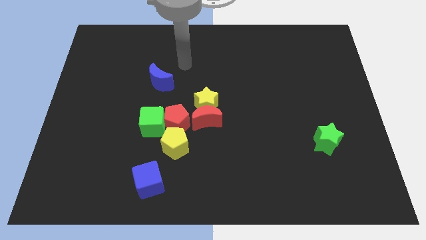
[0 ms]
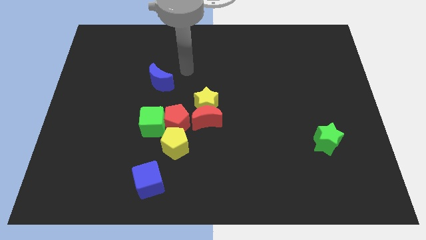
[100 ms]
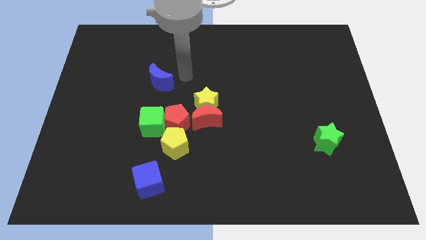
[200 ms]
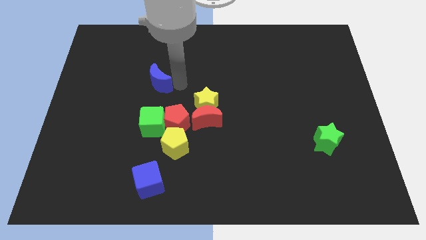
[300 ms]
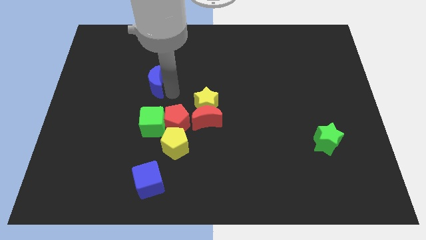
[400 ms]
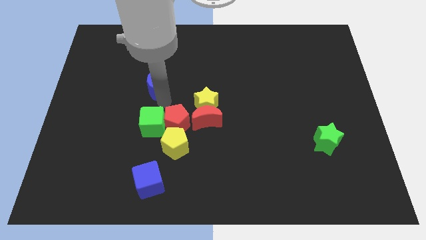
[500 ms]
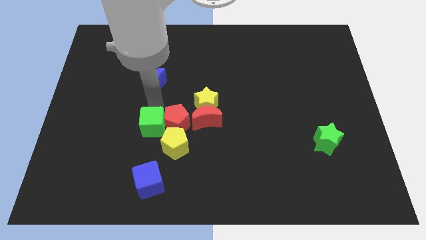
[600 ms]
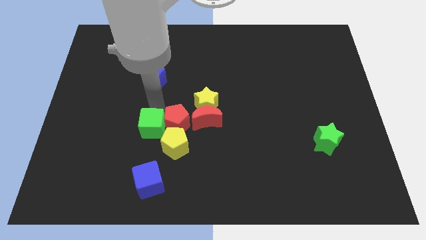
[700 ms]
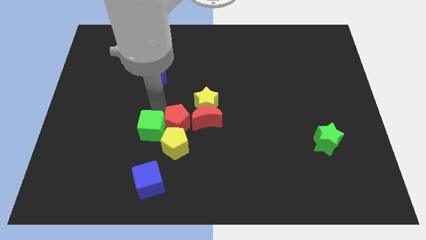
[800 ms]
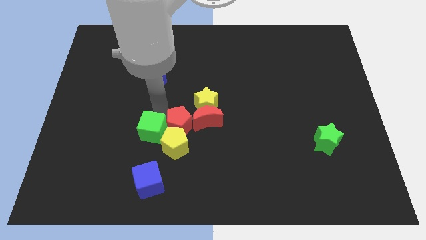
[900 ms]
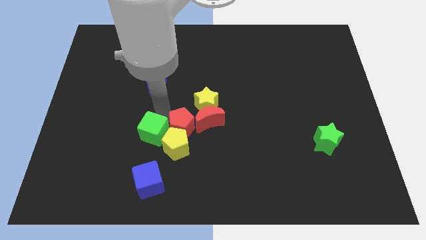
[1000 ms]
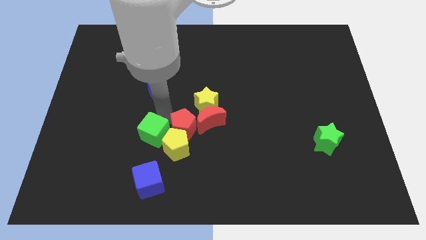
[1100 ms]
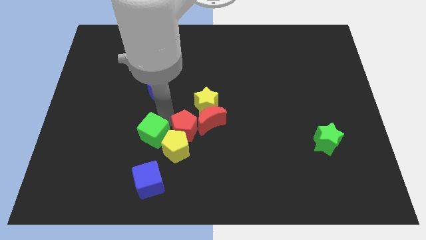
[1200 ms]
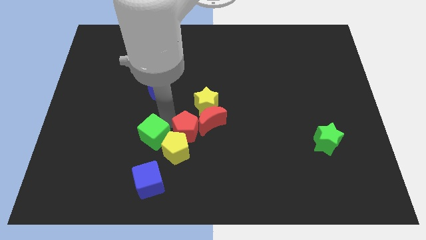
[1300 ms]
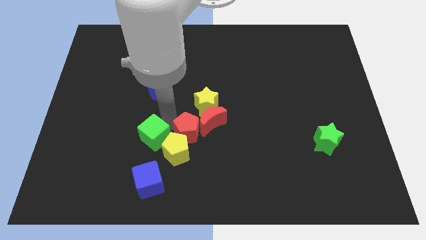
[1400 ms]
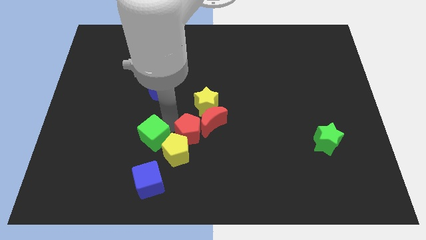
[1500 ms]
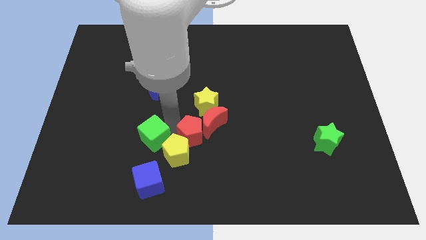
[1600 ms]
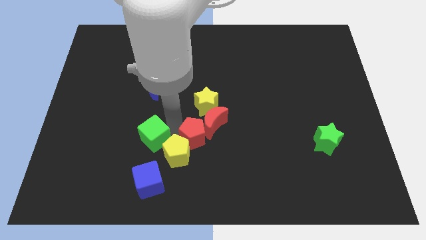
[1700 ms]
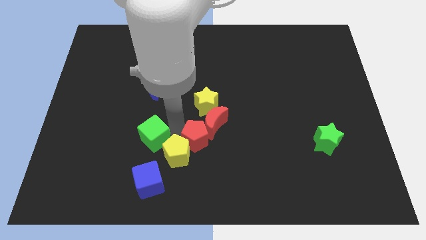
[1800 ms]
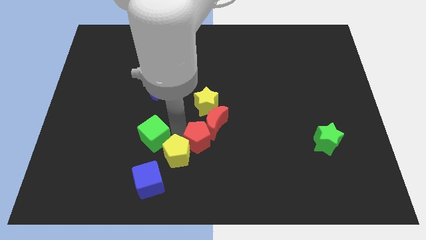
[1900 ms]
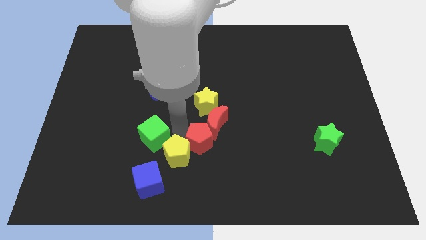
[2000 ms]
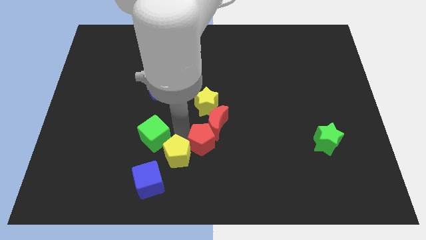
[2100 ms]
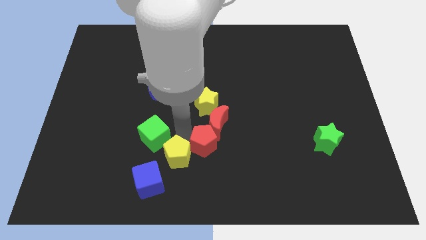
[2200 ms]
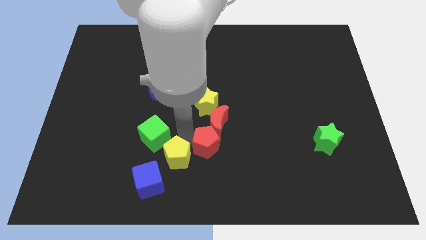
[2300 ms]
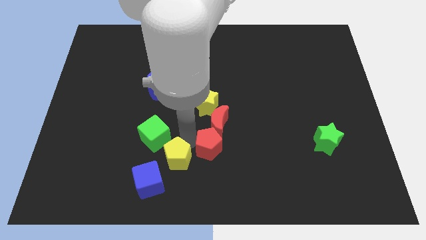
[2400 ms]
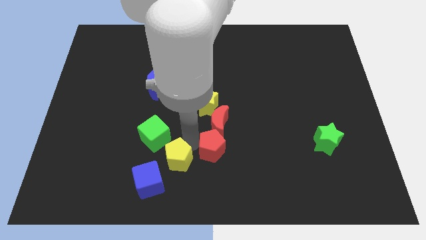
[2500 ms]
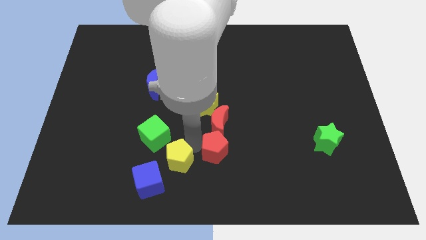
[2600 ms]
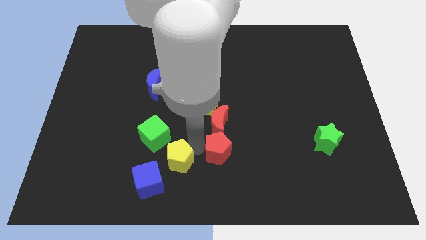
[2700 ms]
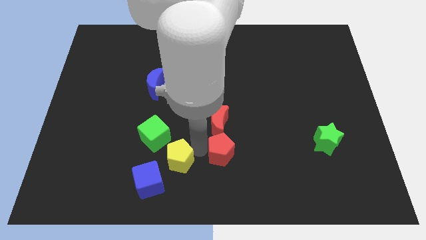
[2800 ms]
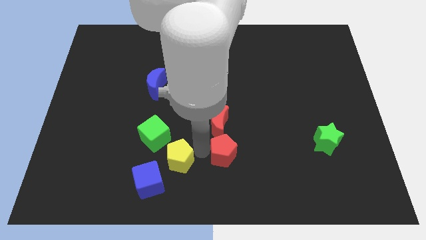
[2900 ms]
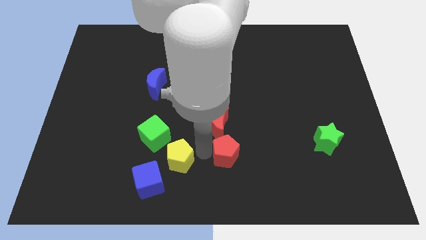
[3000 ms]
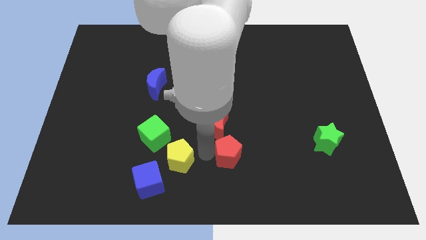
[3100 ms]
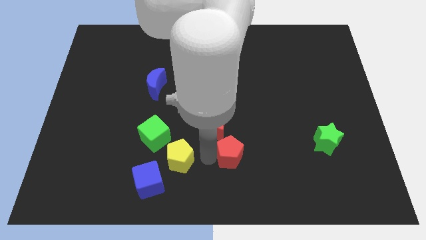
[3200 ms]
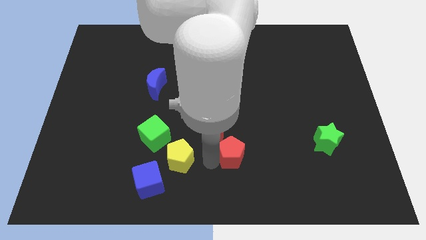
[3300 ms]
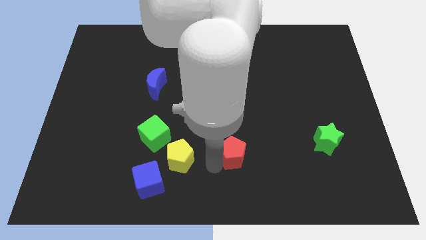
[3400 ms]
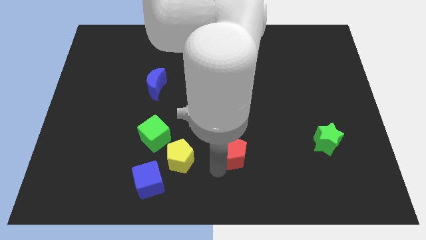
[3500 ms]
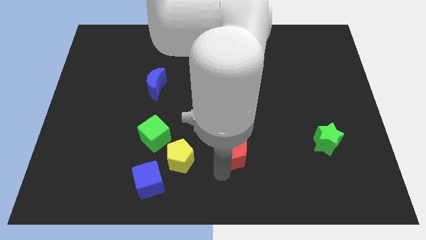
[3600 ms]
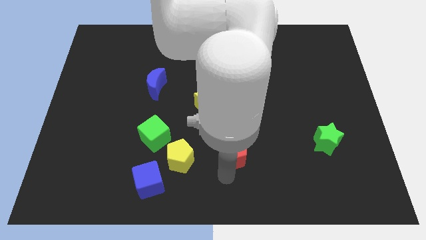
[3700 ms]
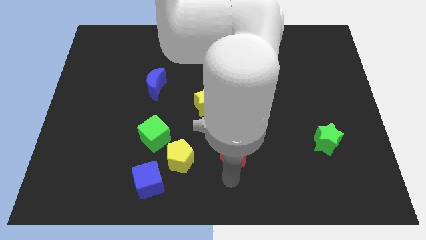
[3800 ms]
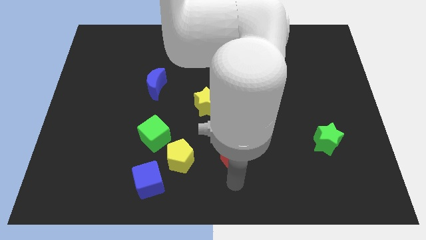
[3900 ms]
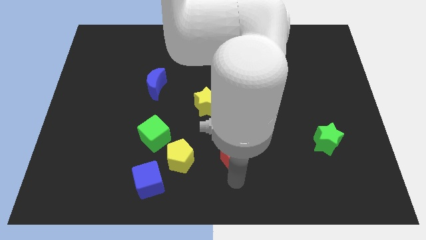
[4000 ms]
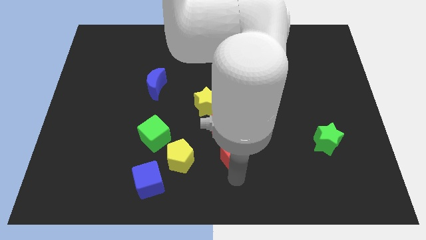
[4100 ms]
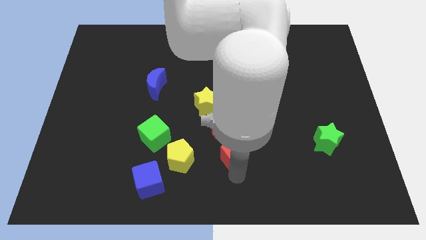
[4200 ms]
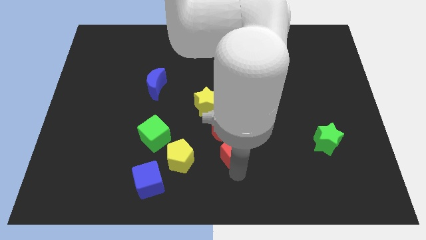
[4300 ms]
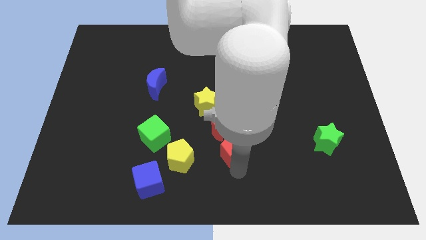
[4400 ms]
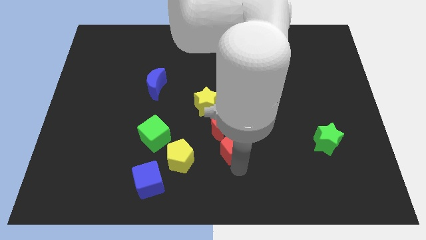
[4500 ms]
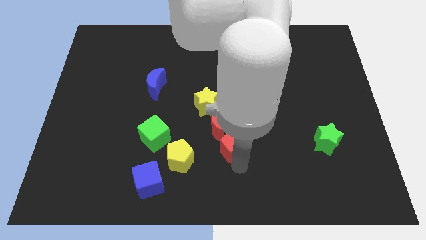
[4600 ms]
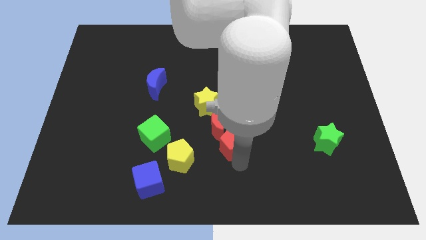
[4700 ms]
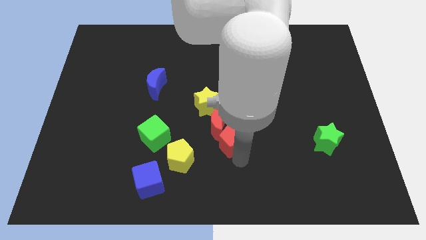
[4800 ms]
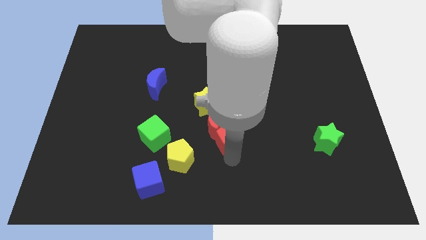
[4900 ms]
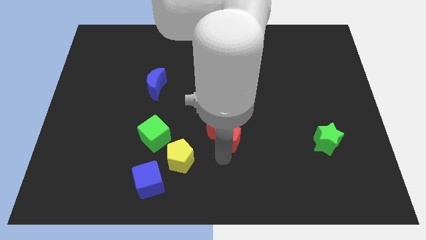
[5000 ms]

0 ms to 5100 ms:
slide the red pentagon to the right side of the red moon

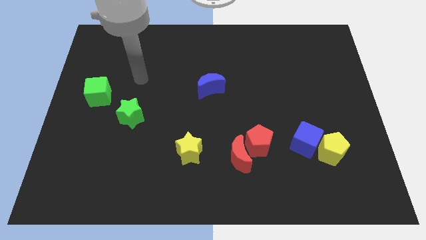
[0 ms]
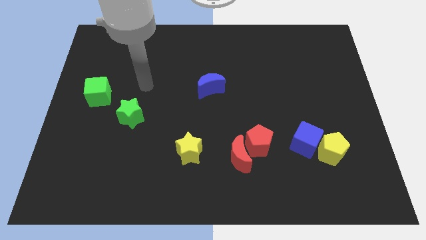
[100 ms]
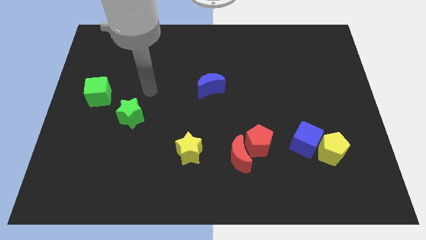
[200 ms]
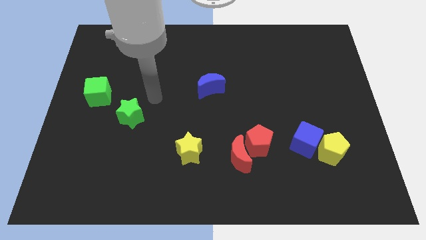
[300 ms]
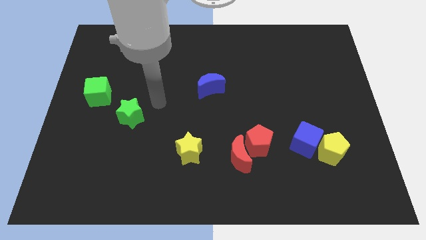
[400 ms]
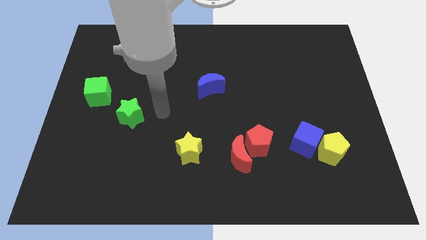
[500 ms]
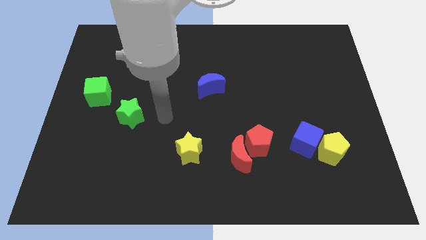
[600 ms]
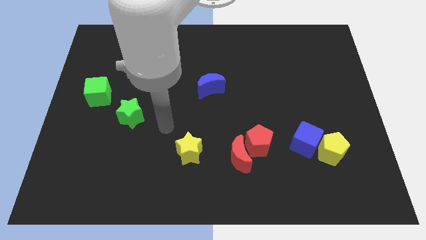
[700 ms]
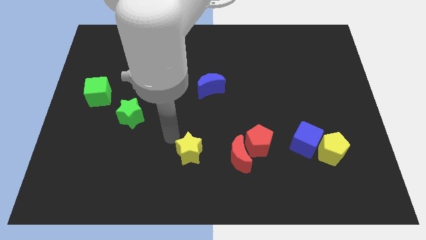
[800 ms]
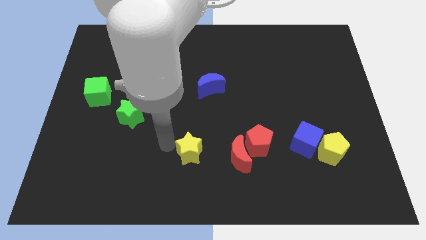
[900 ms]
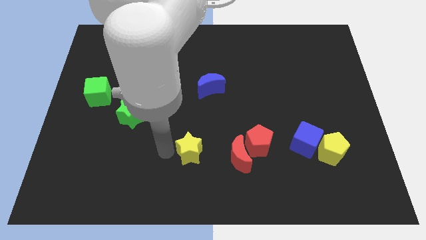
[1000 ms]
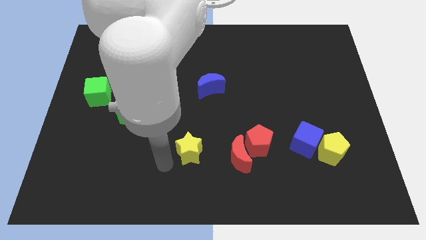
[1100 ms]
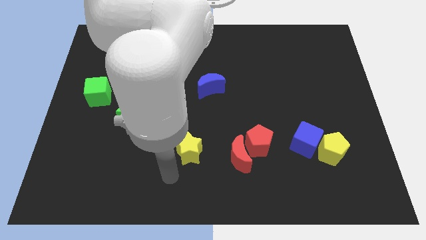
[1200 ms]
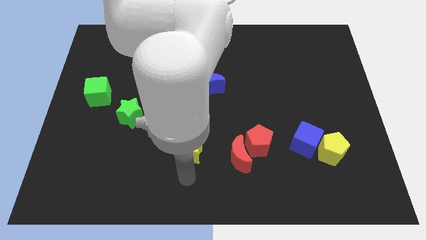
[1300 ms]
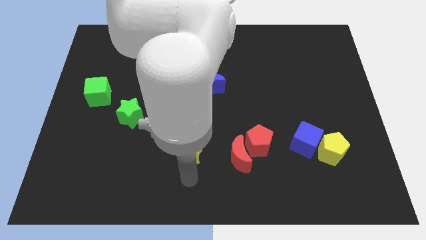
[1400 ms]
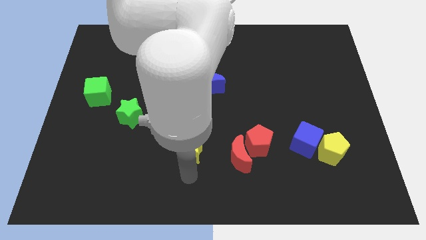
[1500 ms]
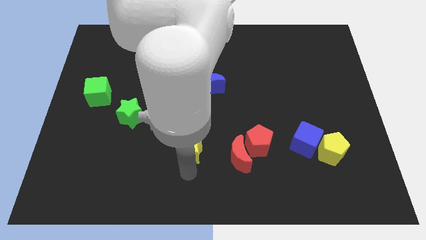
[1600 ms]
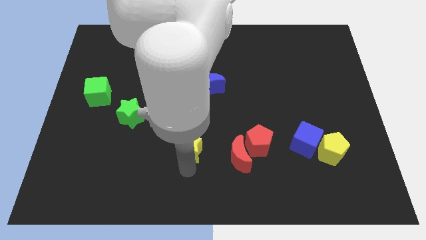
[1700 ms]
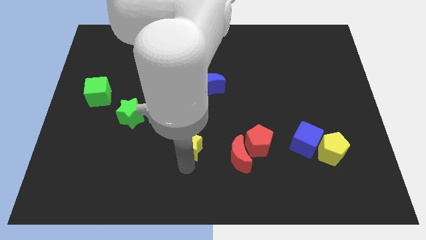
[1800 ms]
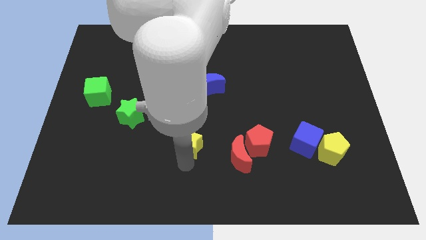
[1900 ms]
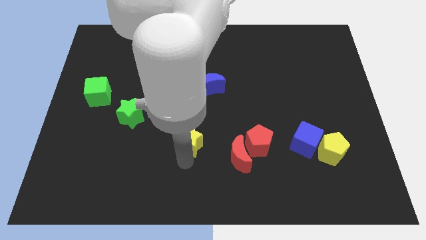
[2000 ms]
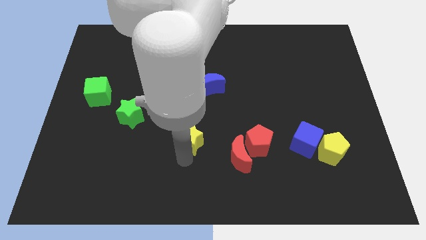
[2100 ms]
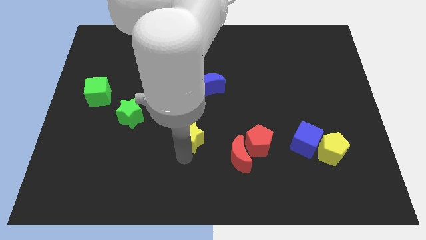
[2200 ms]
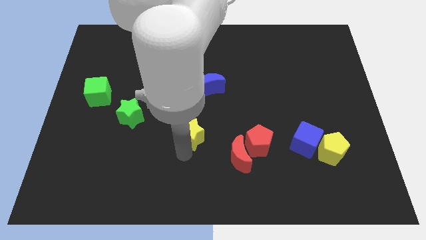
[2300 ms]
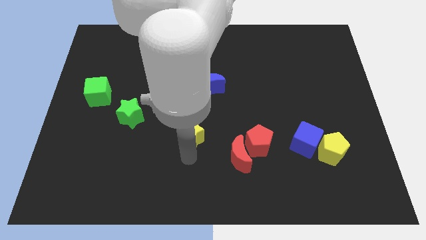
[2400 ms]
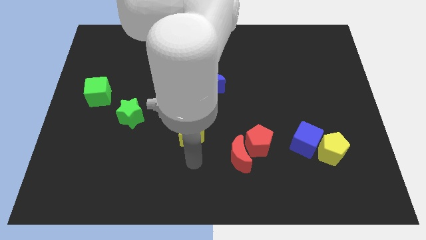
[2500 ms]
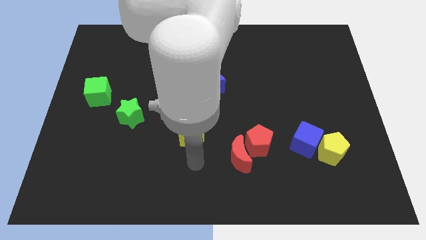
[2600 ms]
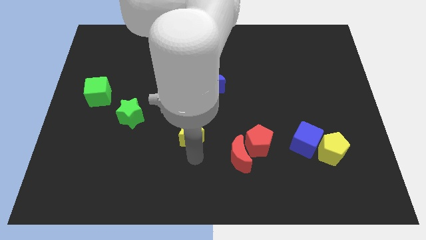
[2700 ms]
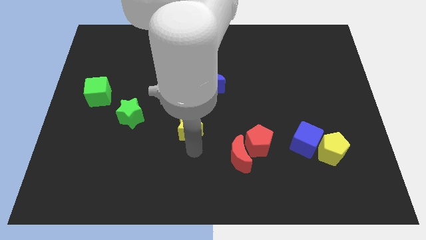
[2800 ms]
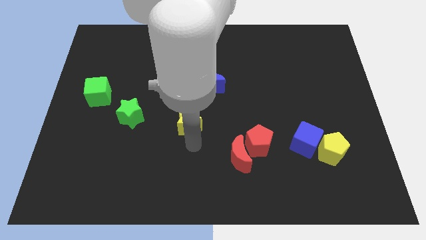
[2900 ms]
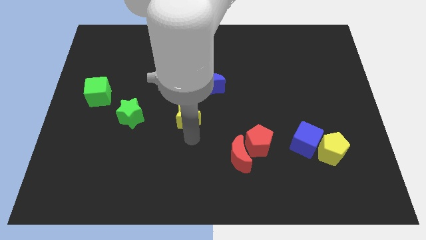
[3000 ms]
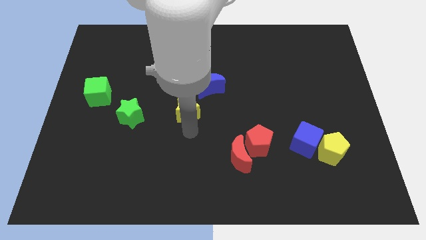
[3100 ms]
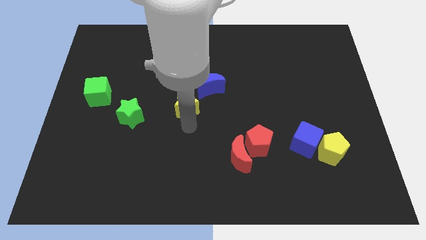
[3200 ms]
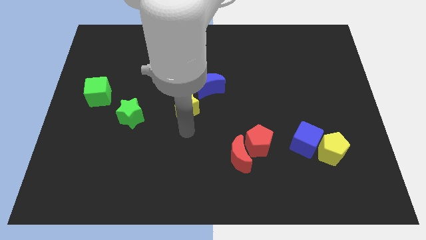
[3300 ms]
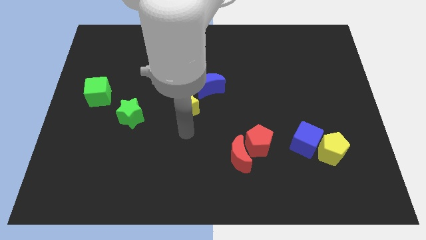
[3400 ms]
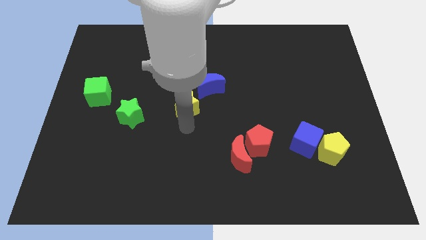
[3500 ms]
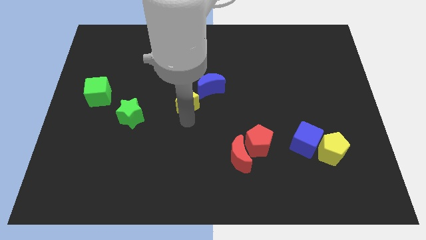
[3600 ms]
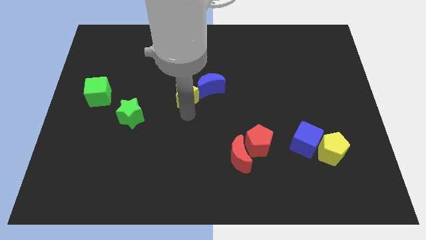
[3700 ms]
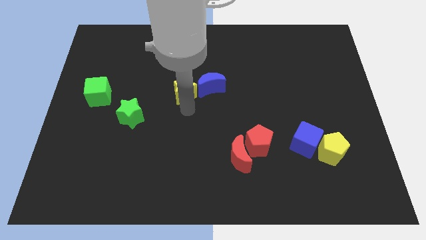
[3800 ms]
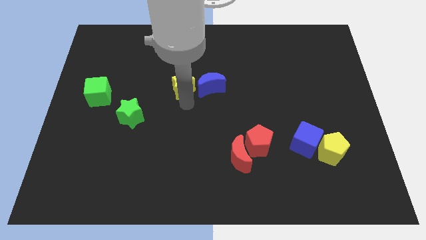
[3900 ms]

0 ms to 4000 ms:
put the yellow star to the top left side of the blue moon
